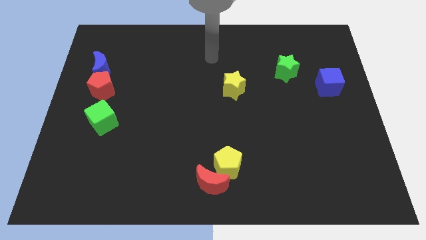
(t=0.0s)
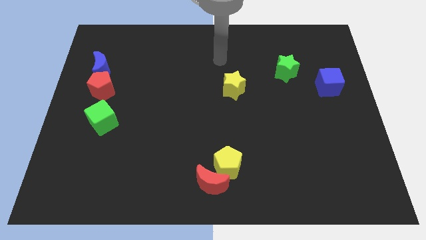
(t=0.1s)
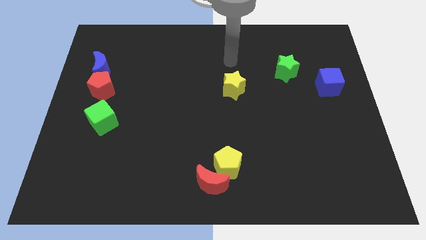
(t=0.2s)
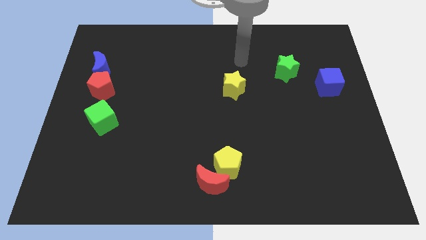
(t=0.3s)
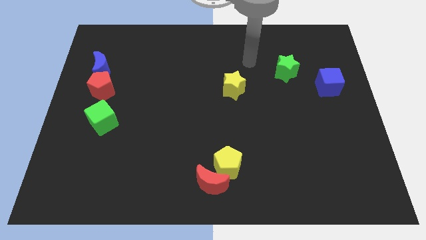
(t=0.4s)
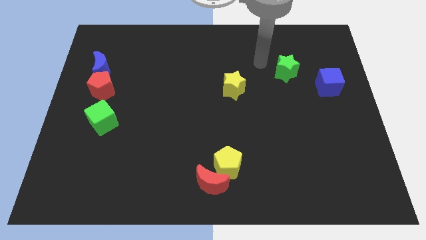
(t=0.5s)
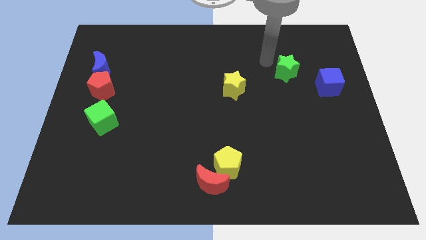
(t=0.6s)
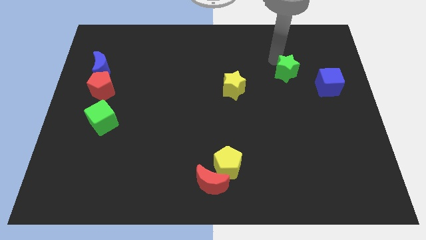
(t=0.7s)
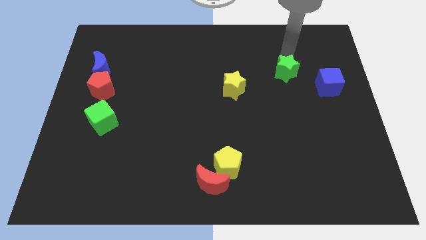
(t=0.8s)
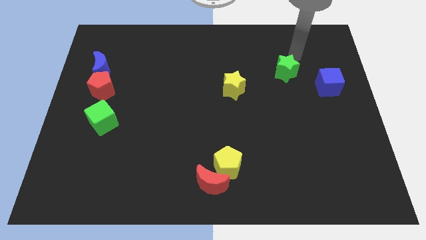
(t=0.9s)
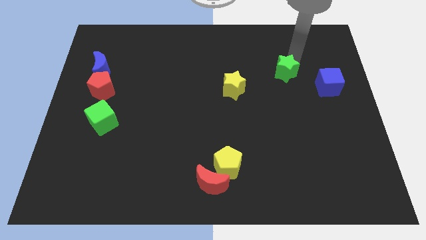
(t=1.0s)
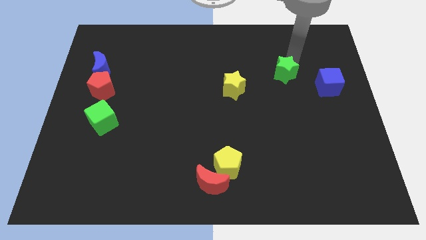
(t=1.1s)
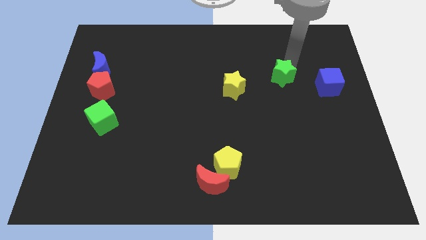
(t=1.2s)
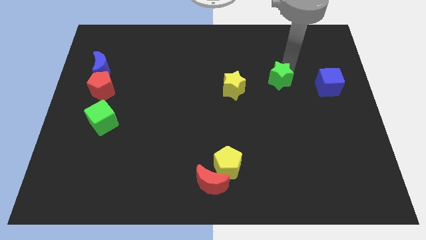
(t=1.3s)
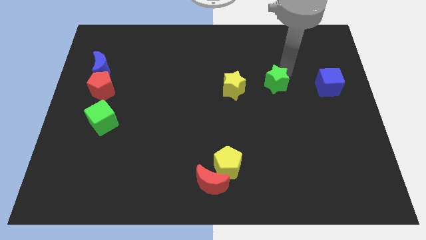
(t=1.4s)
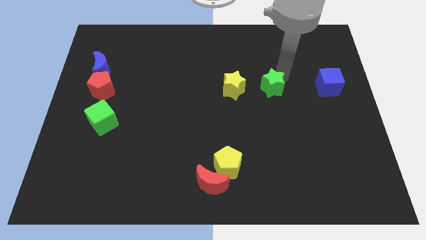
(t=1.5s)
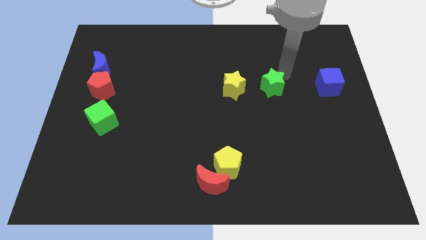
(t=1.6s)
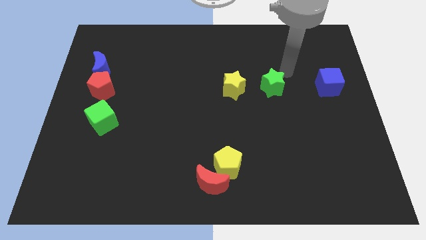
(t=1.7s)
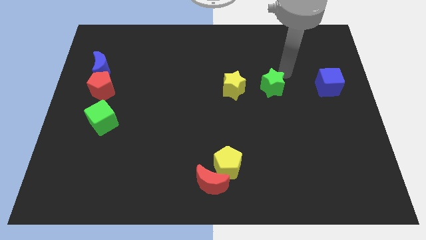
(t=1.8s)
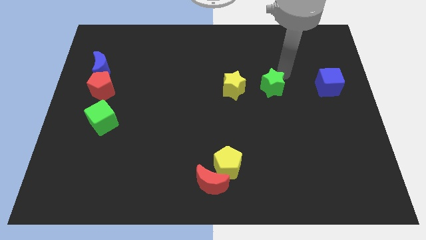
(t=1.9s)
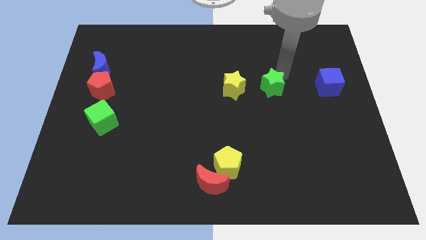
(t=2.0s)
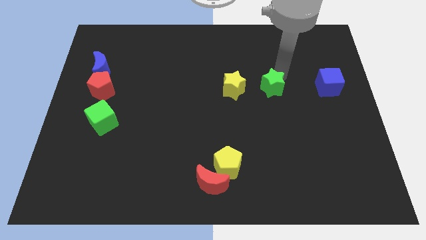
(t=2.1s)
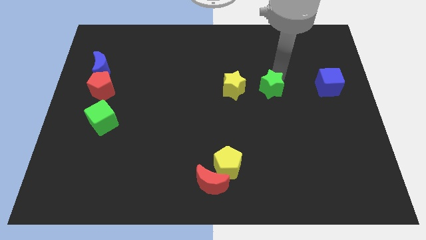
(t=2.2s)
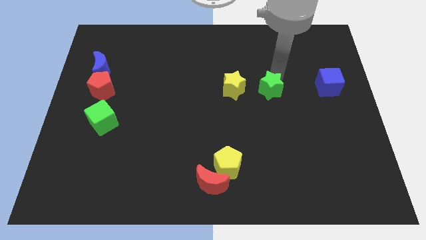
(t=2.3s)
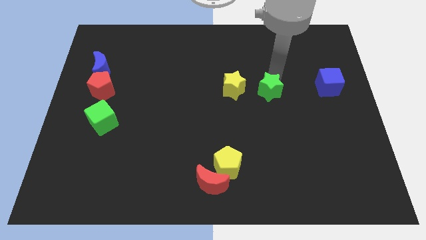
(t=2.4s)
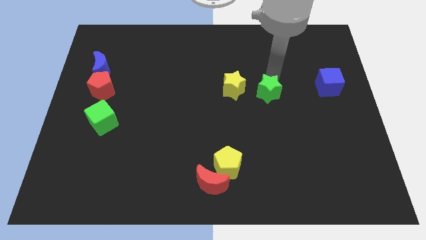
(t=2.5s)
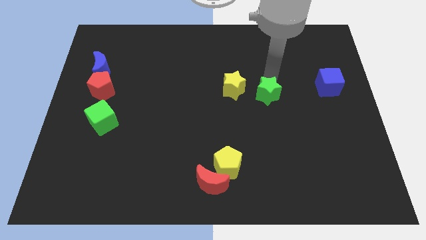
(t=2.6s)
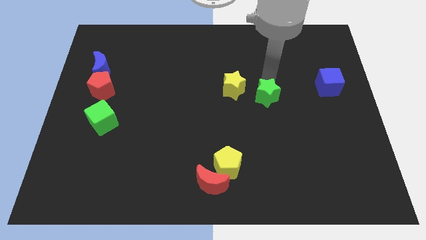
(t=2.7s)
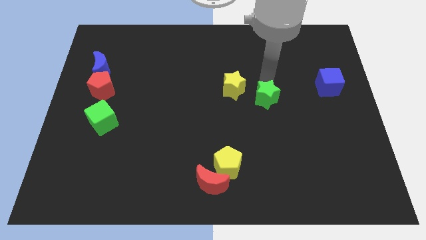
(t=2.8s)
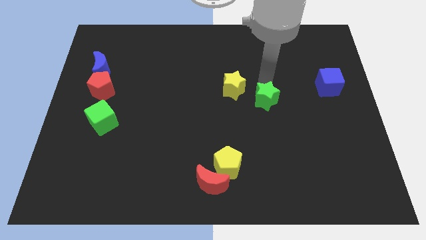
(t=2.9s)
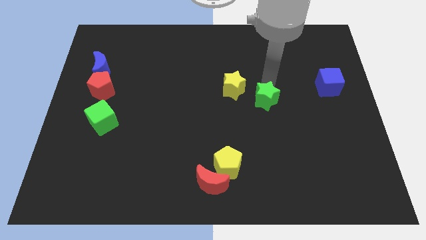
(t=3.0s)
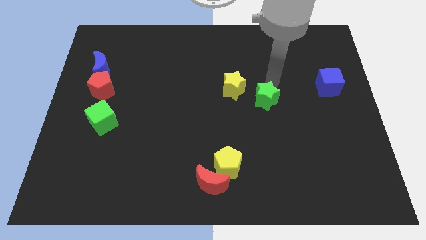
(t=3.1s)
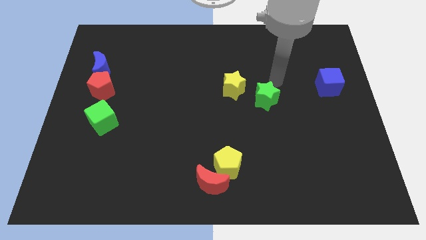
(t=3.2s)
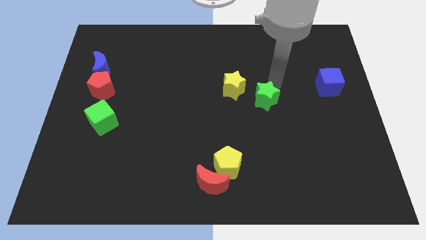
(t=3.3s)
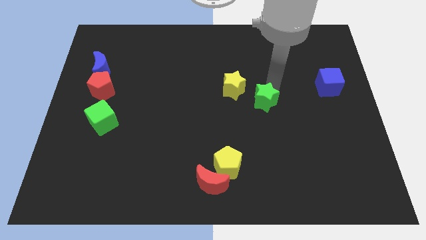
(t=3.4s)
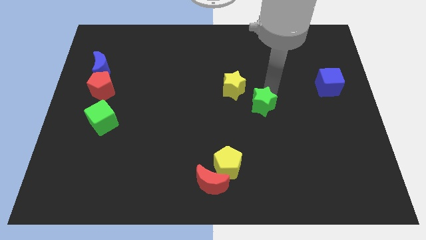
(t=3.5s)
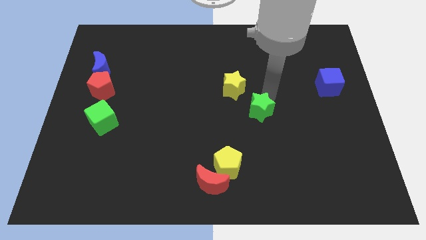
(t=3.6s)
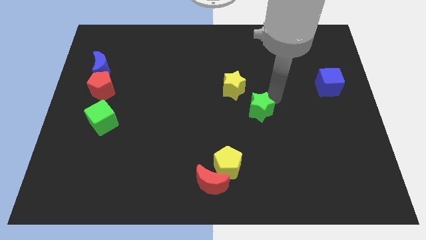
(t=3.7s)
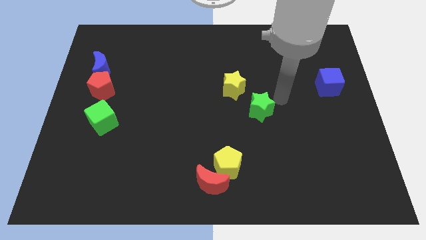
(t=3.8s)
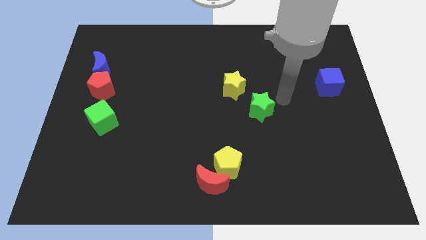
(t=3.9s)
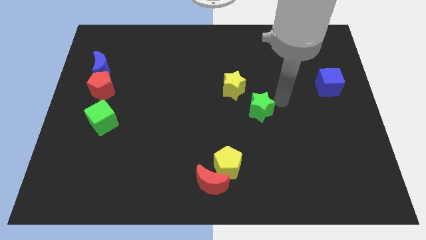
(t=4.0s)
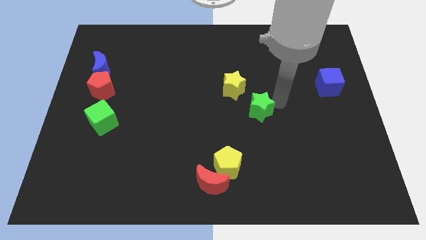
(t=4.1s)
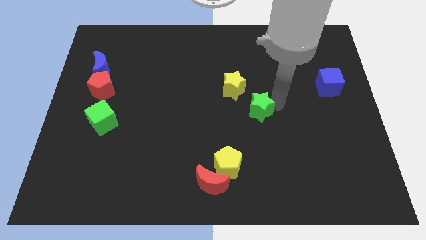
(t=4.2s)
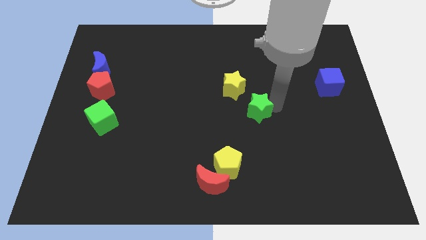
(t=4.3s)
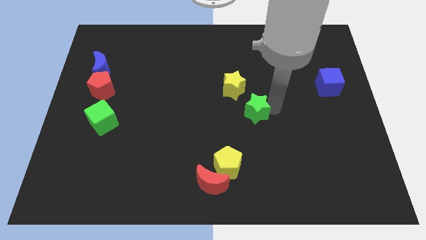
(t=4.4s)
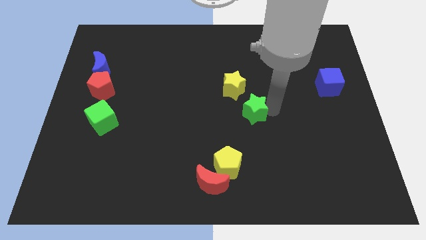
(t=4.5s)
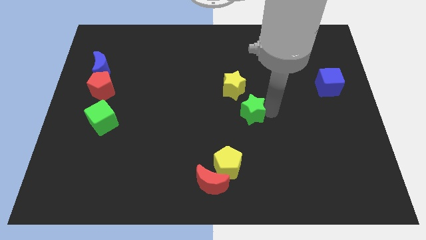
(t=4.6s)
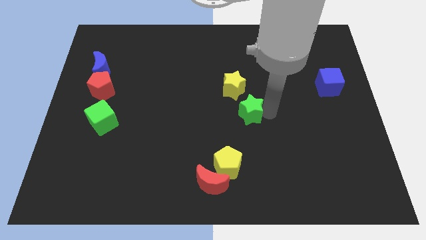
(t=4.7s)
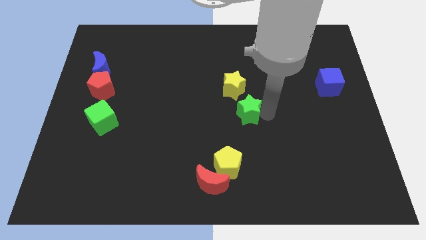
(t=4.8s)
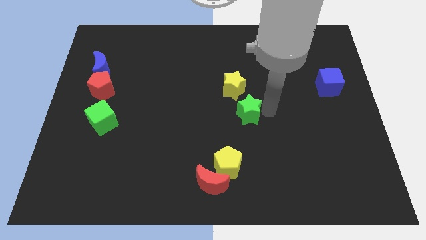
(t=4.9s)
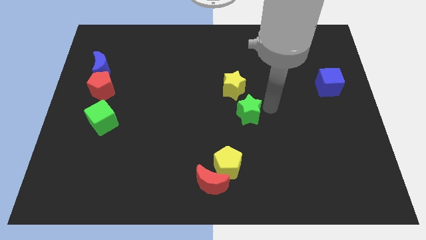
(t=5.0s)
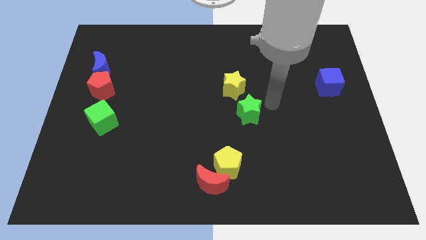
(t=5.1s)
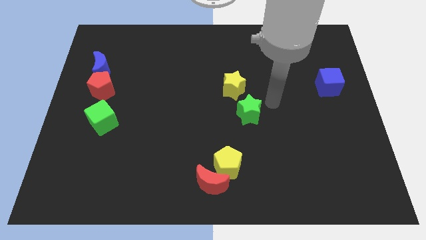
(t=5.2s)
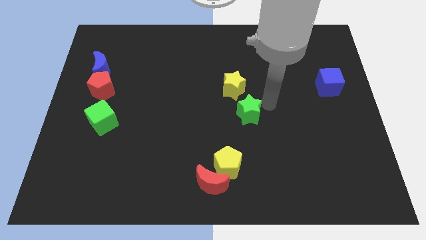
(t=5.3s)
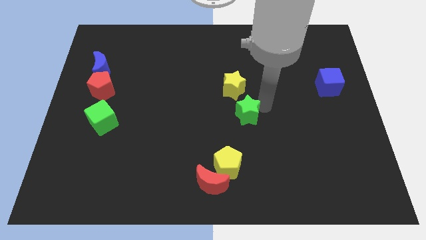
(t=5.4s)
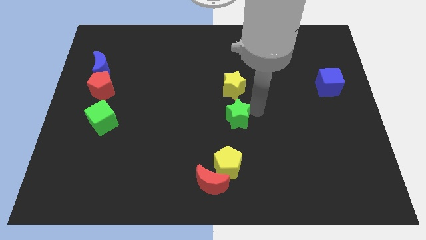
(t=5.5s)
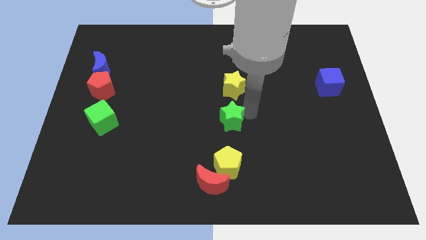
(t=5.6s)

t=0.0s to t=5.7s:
slide the green star down and then left

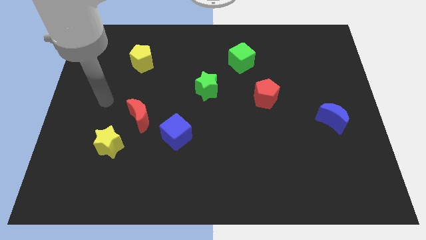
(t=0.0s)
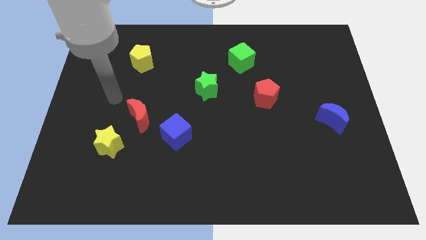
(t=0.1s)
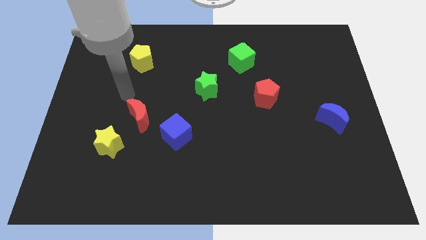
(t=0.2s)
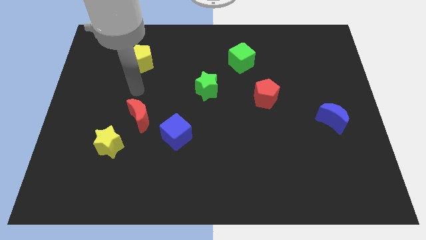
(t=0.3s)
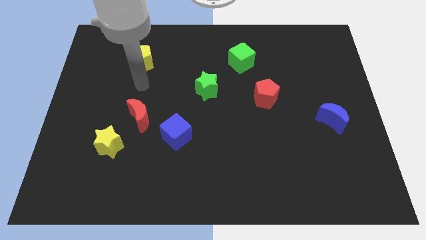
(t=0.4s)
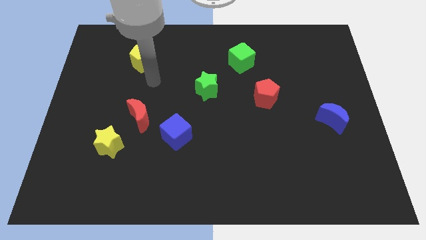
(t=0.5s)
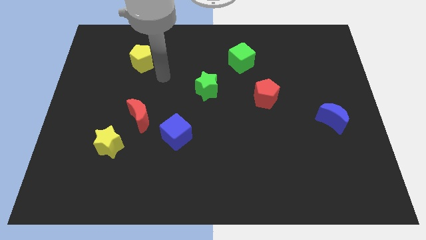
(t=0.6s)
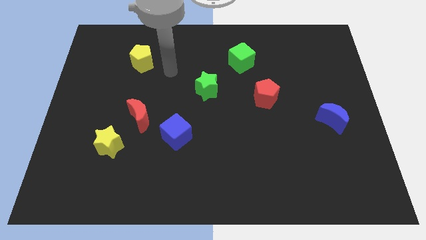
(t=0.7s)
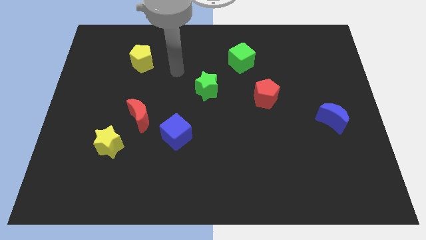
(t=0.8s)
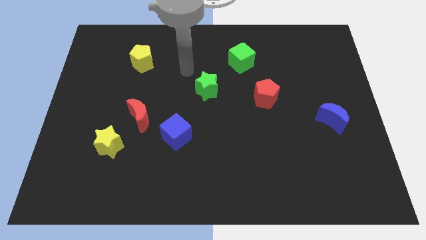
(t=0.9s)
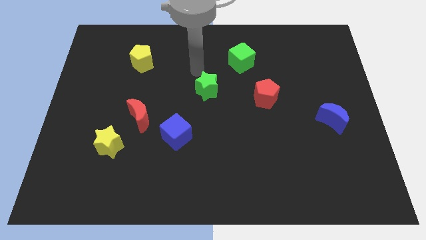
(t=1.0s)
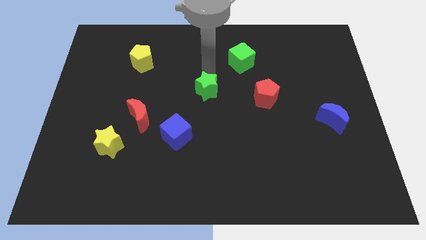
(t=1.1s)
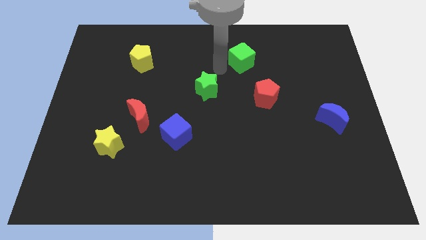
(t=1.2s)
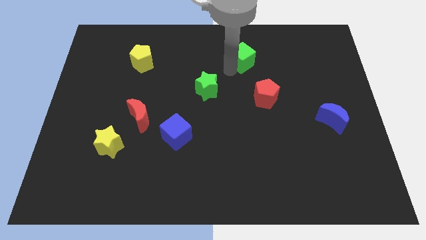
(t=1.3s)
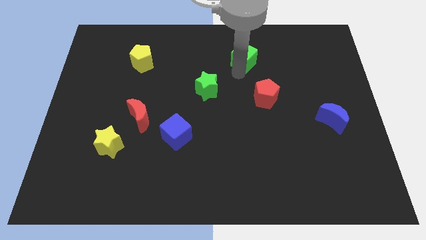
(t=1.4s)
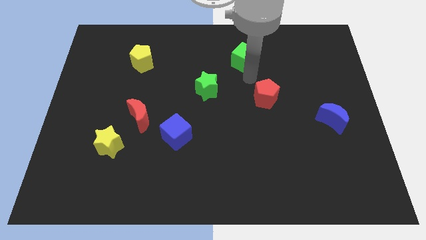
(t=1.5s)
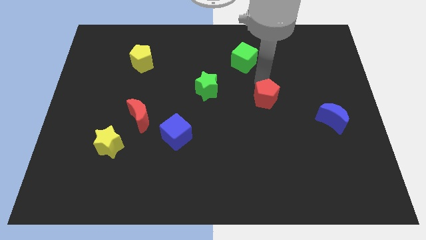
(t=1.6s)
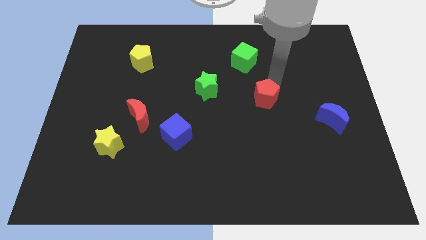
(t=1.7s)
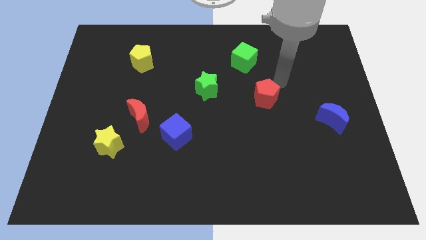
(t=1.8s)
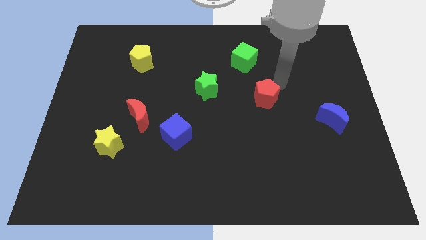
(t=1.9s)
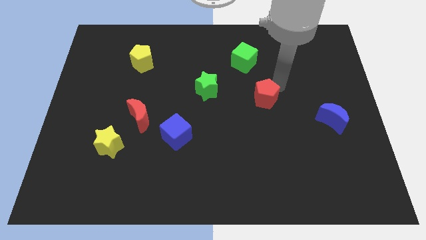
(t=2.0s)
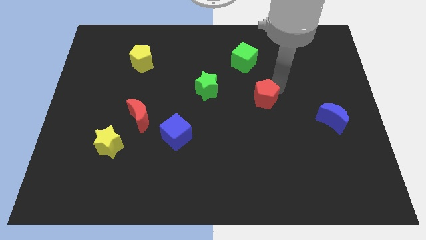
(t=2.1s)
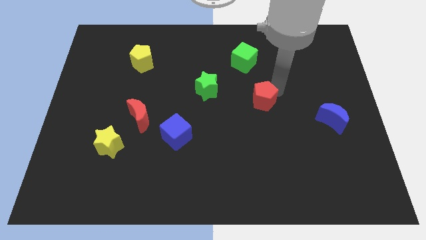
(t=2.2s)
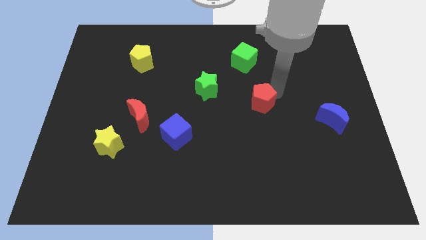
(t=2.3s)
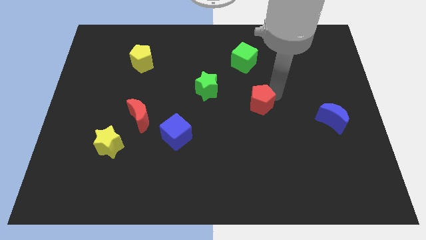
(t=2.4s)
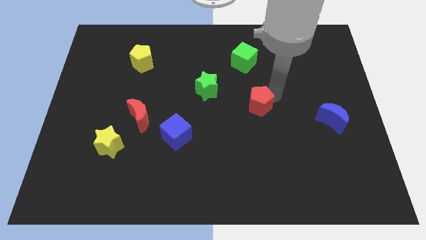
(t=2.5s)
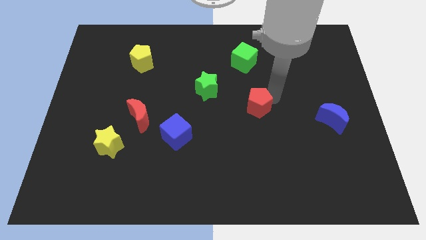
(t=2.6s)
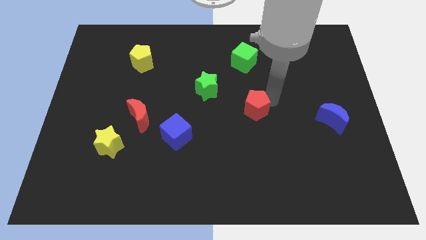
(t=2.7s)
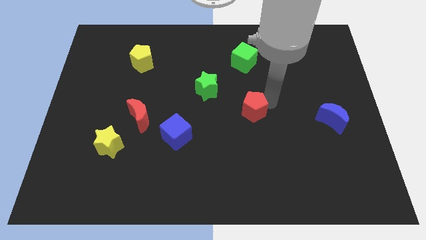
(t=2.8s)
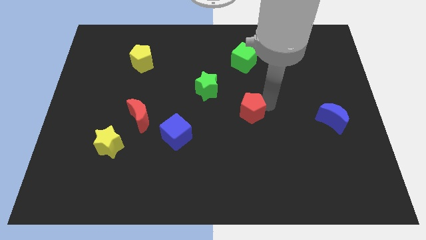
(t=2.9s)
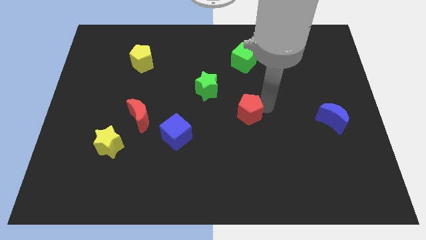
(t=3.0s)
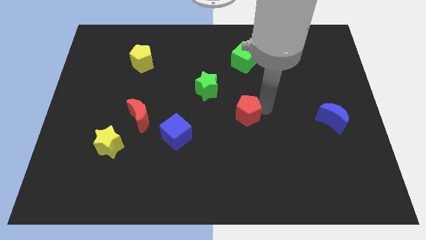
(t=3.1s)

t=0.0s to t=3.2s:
slightly push the red pentagon downwards and then left
